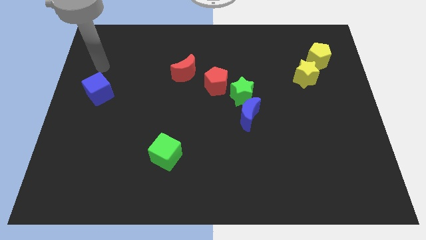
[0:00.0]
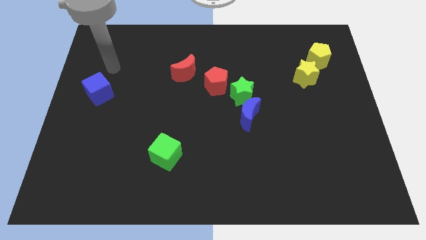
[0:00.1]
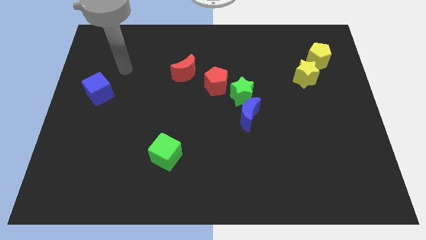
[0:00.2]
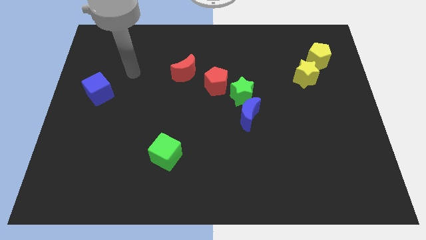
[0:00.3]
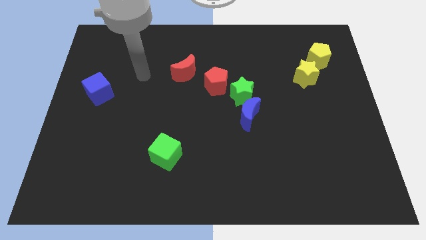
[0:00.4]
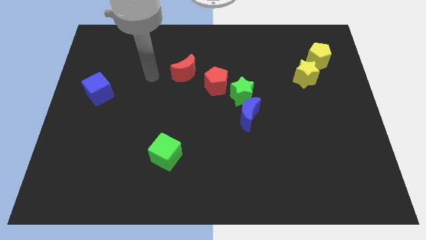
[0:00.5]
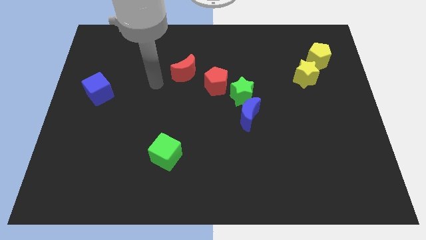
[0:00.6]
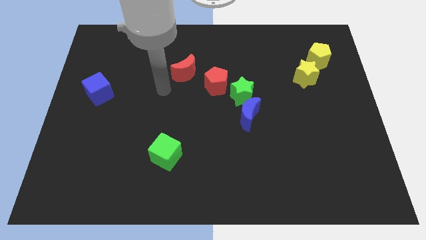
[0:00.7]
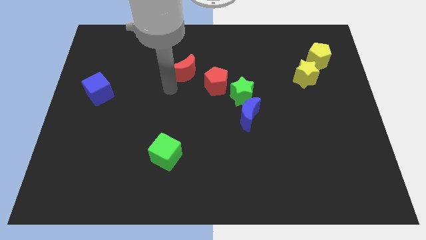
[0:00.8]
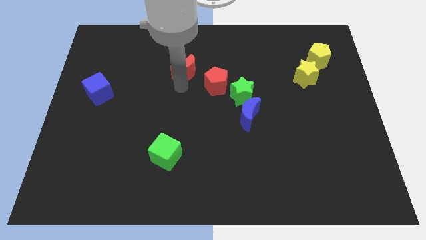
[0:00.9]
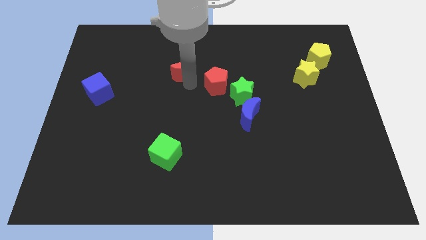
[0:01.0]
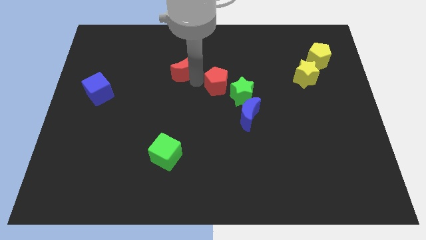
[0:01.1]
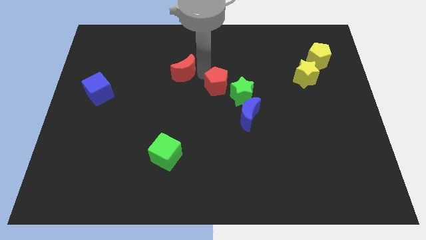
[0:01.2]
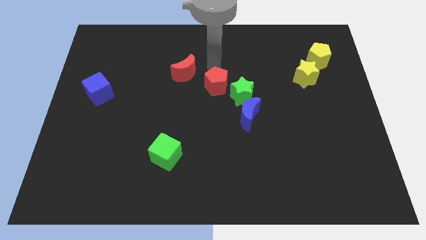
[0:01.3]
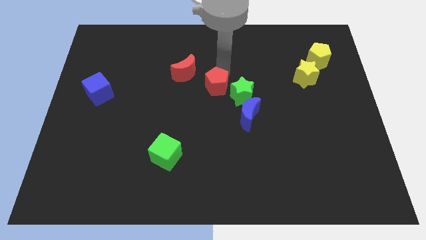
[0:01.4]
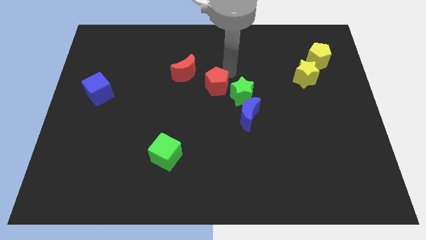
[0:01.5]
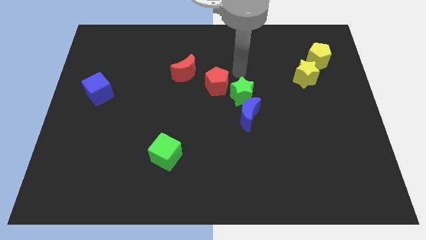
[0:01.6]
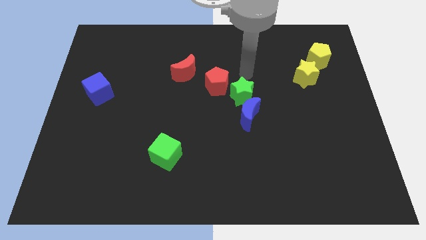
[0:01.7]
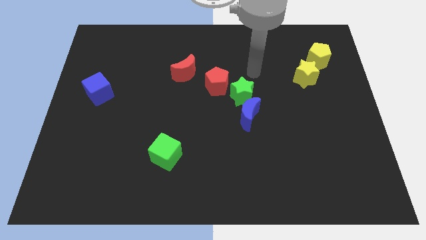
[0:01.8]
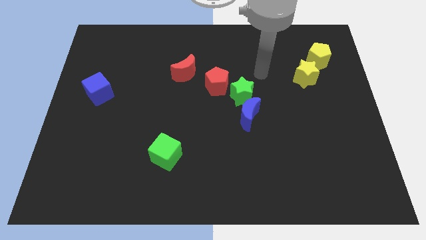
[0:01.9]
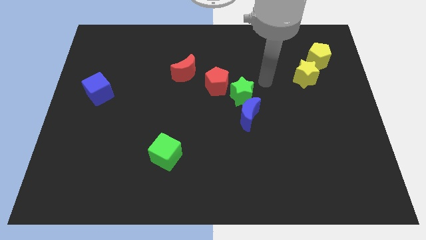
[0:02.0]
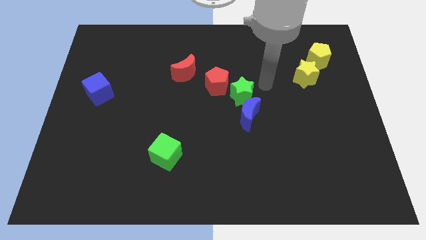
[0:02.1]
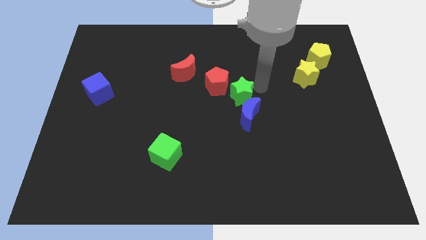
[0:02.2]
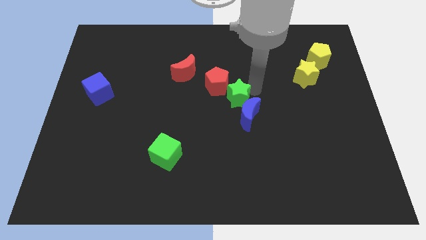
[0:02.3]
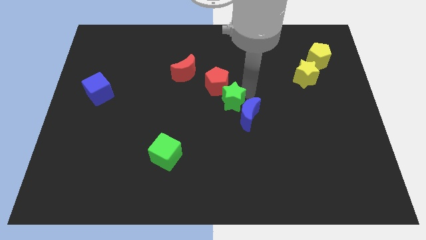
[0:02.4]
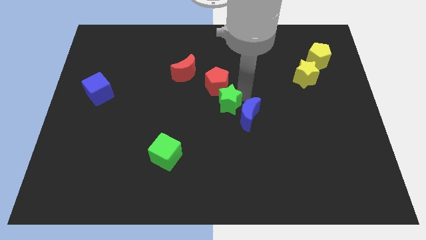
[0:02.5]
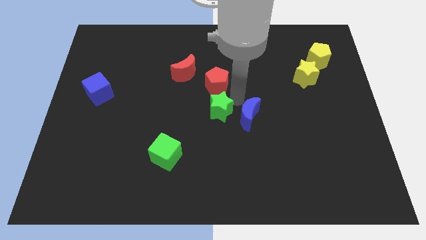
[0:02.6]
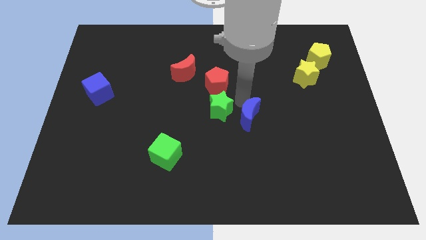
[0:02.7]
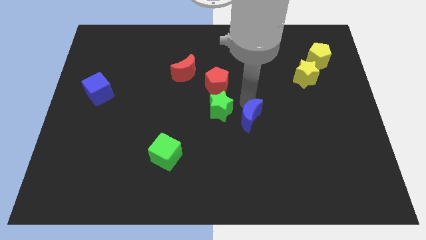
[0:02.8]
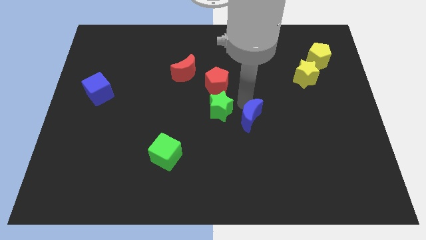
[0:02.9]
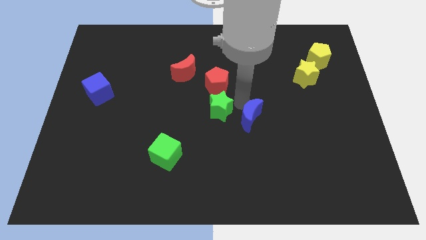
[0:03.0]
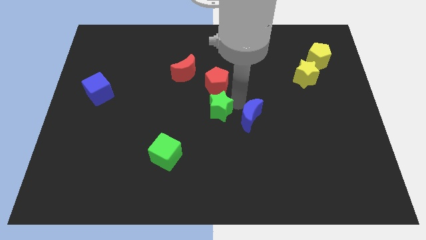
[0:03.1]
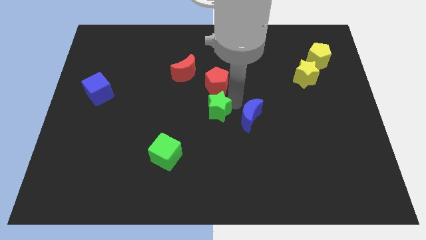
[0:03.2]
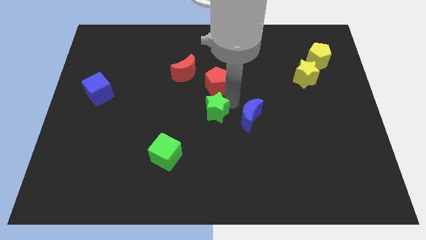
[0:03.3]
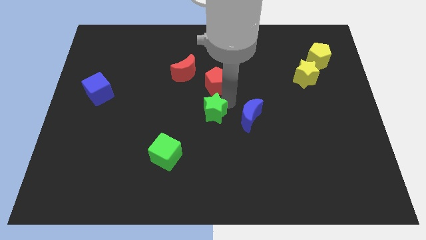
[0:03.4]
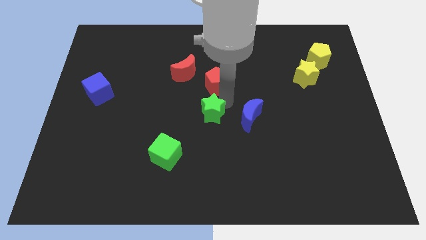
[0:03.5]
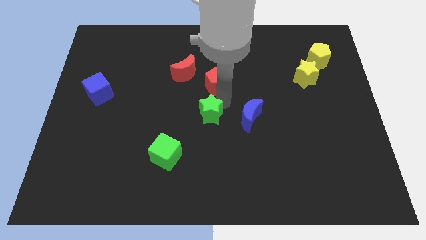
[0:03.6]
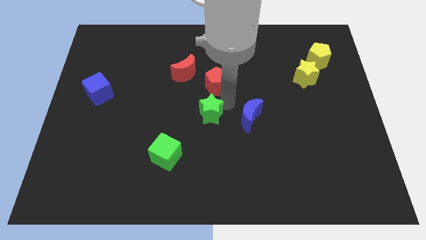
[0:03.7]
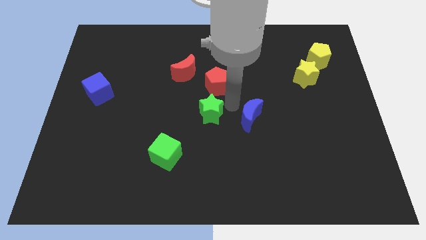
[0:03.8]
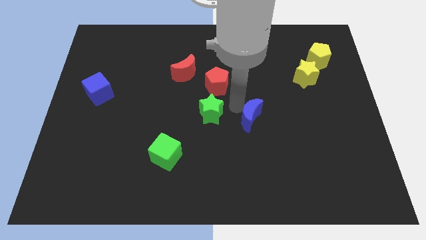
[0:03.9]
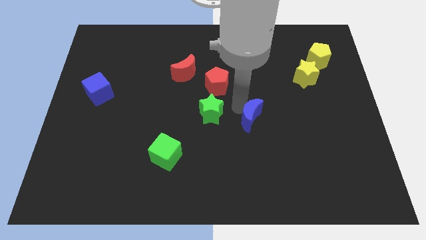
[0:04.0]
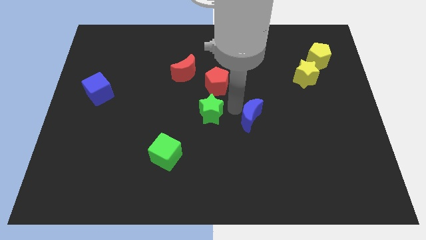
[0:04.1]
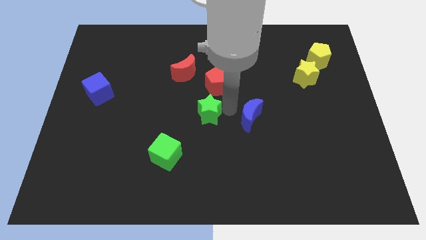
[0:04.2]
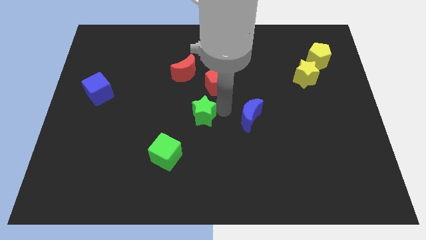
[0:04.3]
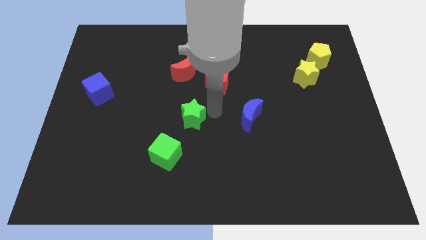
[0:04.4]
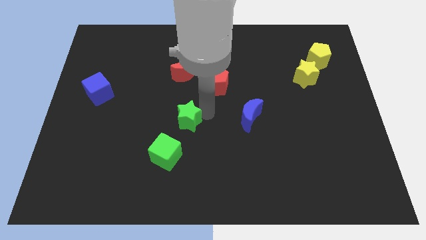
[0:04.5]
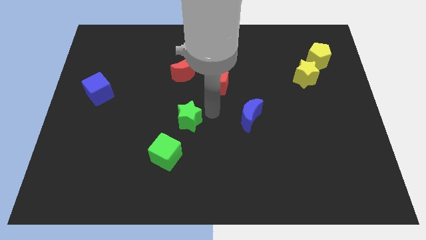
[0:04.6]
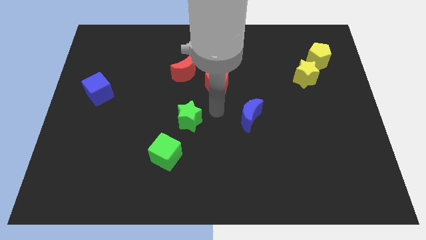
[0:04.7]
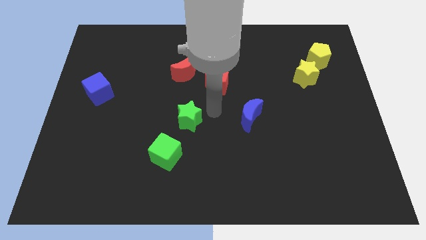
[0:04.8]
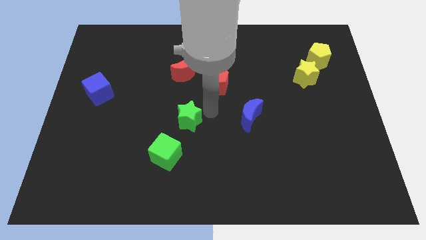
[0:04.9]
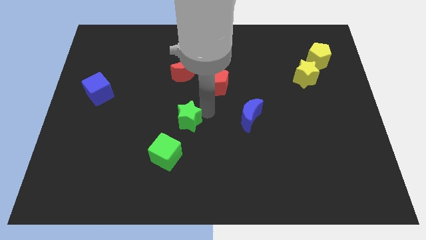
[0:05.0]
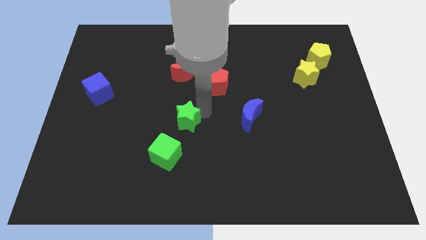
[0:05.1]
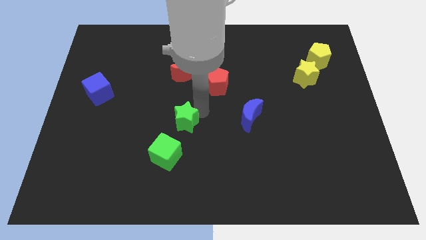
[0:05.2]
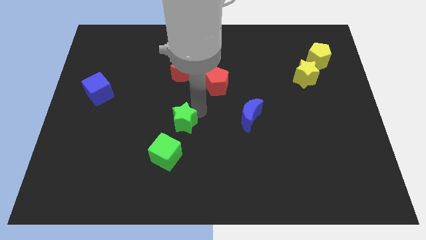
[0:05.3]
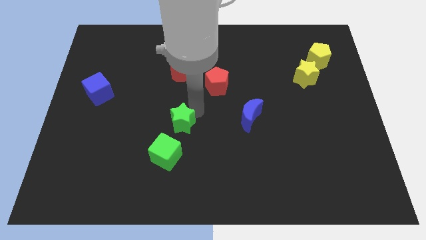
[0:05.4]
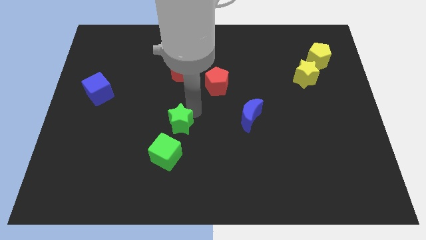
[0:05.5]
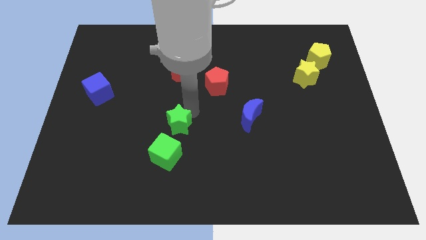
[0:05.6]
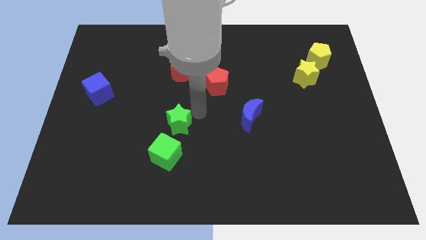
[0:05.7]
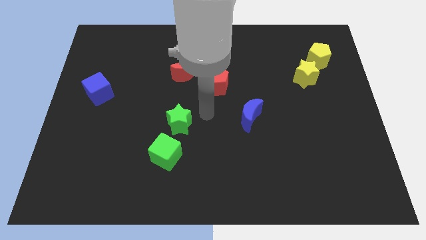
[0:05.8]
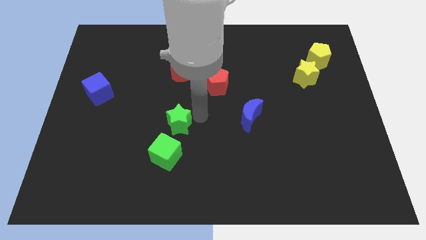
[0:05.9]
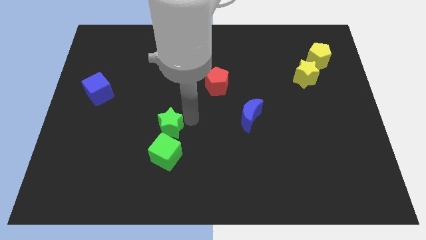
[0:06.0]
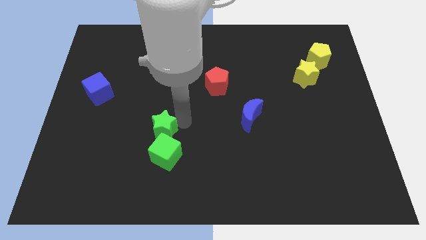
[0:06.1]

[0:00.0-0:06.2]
slide the green star to the top left side of the green cube

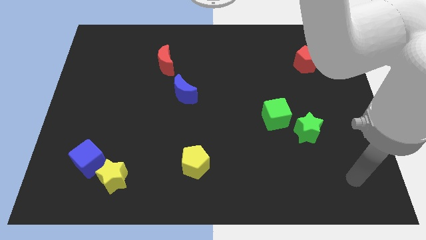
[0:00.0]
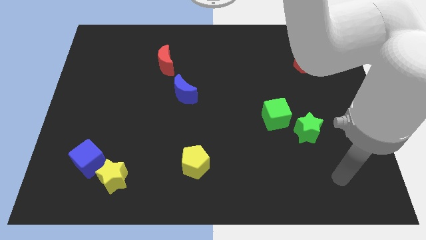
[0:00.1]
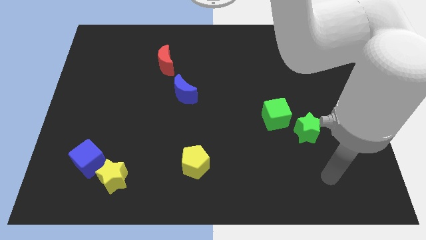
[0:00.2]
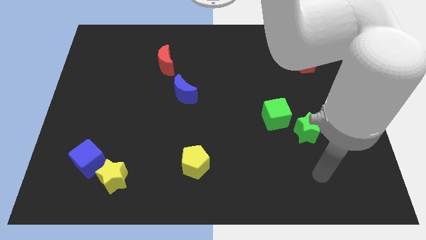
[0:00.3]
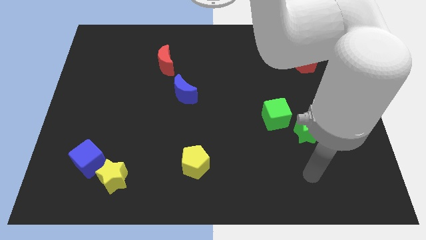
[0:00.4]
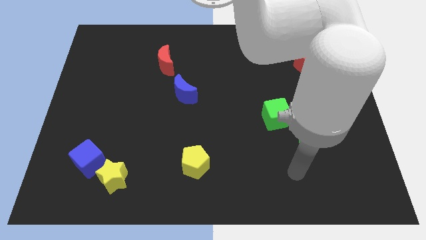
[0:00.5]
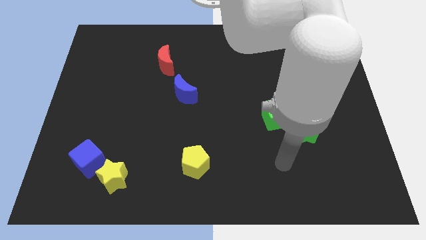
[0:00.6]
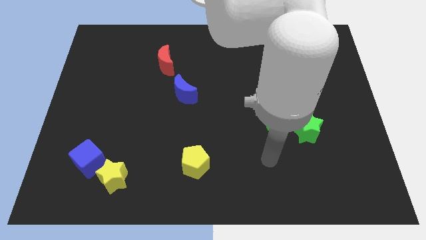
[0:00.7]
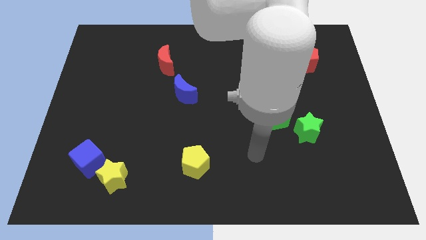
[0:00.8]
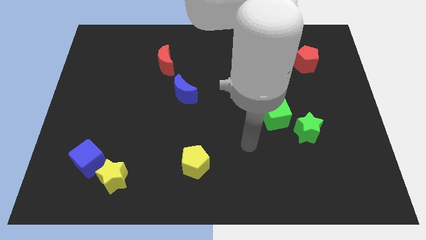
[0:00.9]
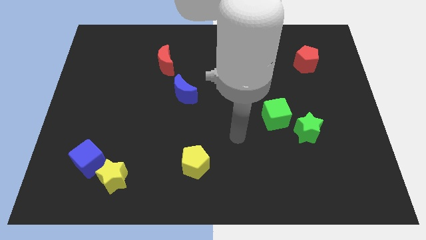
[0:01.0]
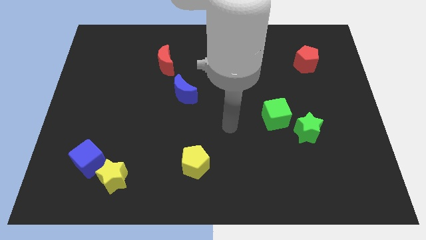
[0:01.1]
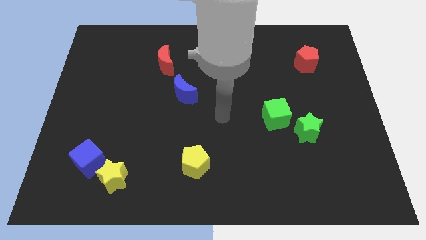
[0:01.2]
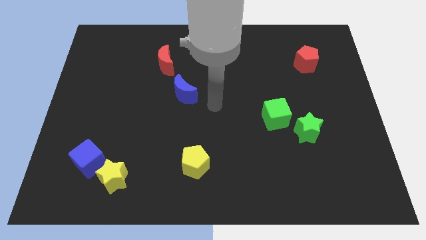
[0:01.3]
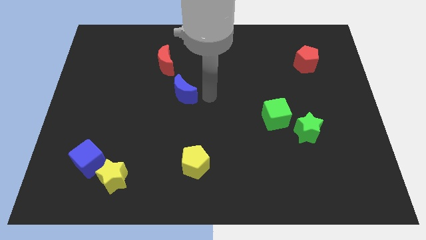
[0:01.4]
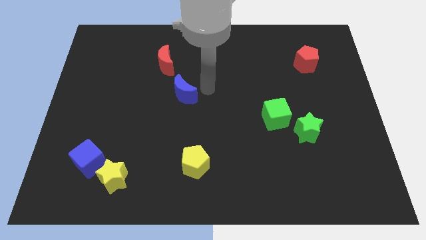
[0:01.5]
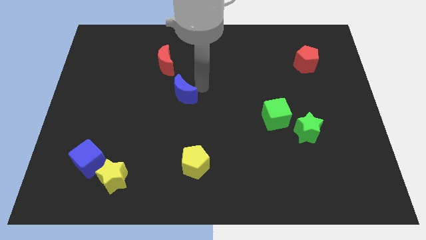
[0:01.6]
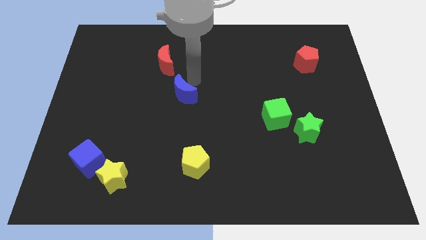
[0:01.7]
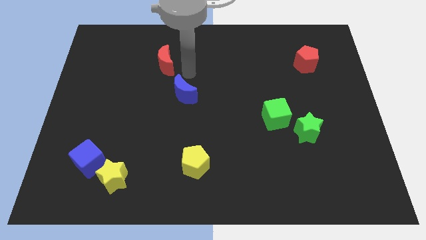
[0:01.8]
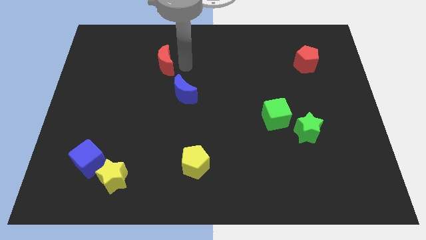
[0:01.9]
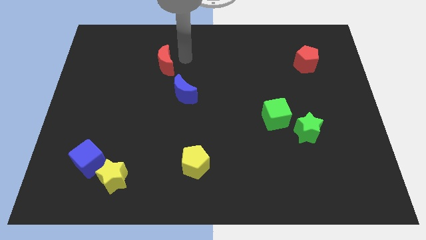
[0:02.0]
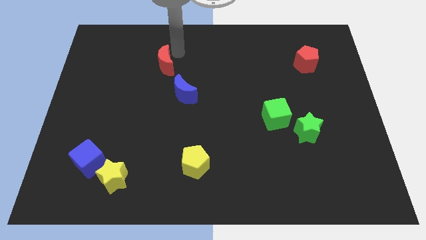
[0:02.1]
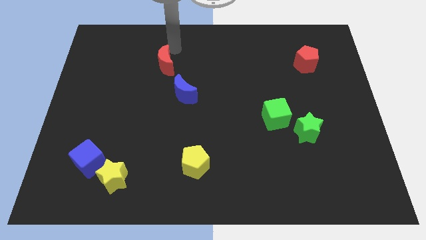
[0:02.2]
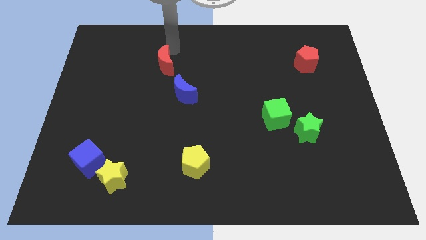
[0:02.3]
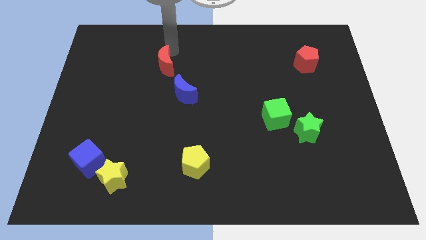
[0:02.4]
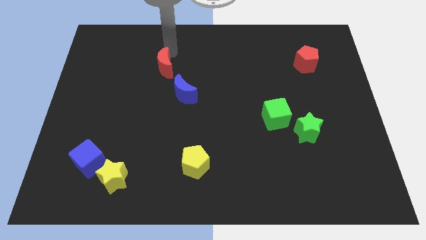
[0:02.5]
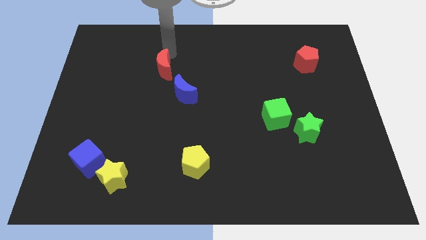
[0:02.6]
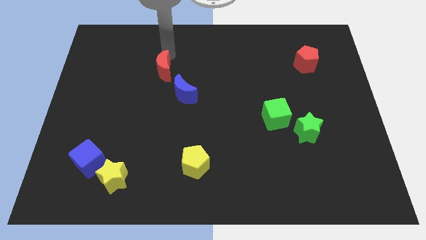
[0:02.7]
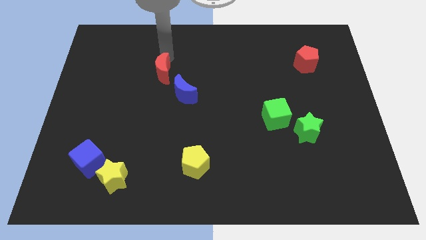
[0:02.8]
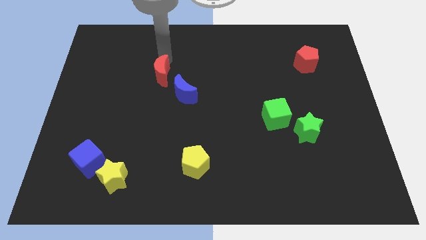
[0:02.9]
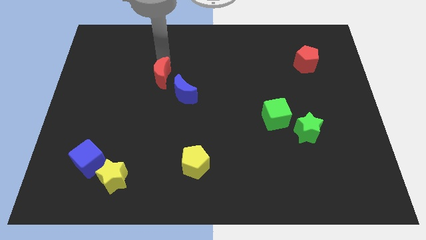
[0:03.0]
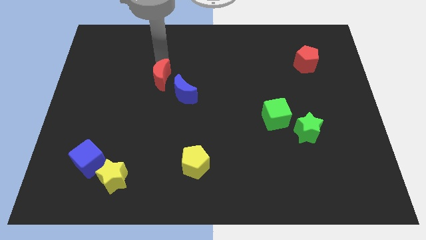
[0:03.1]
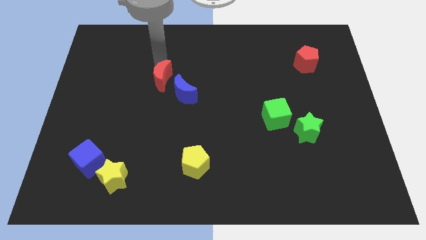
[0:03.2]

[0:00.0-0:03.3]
put the red moon to the left side of the blue moon
